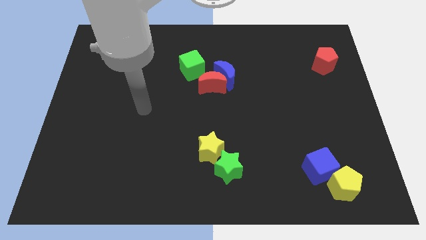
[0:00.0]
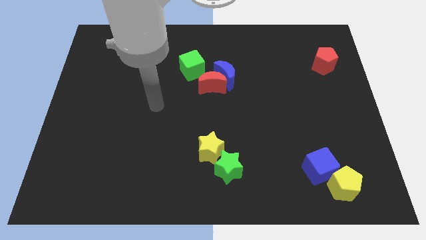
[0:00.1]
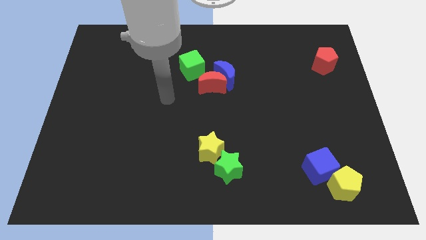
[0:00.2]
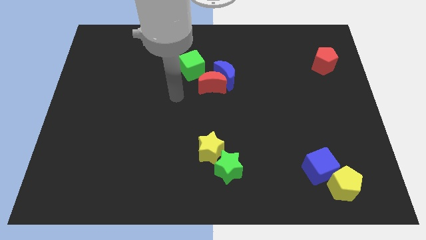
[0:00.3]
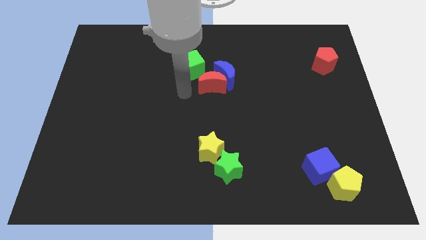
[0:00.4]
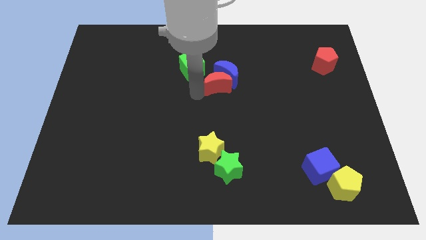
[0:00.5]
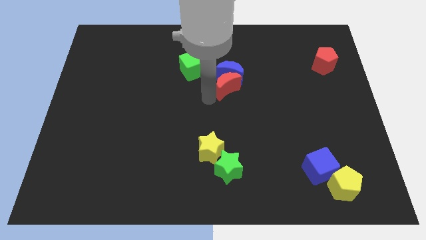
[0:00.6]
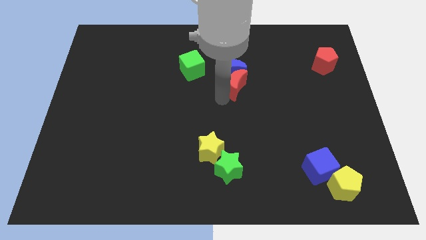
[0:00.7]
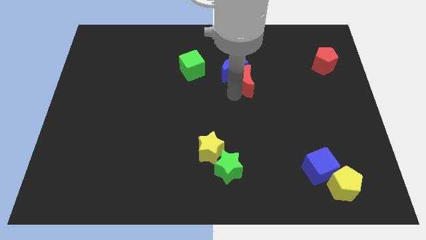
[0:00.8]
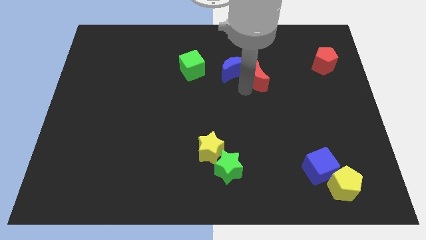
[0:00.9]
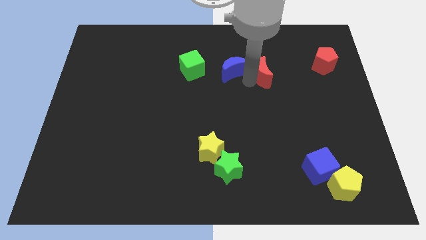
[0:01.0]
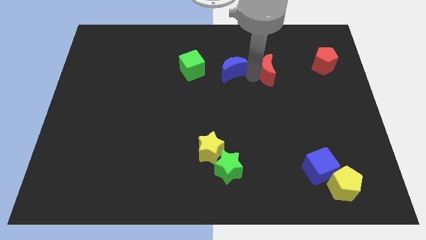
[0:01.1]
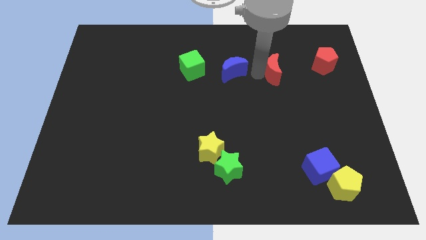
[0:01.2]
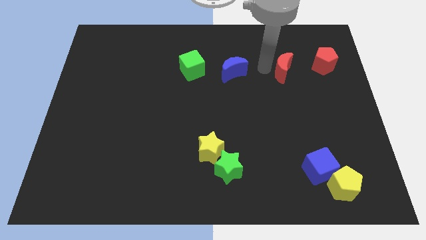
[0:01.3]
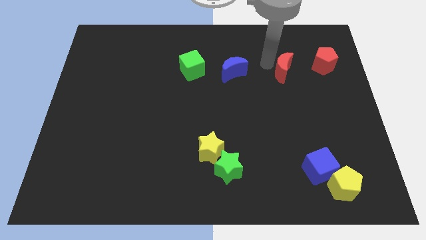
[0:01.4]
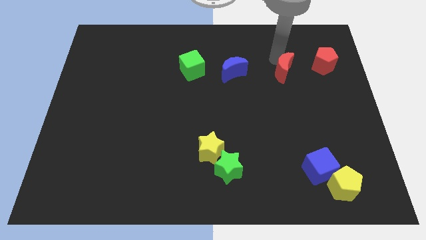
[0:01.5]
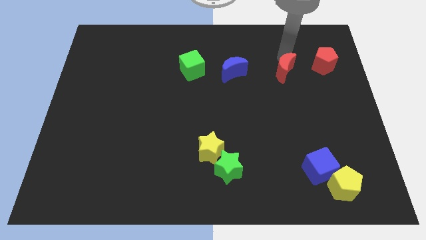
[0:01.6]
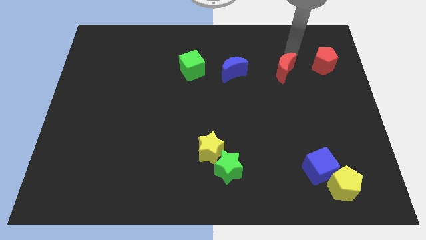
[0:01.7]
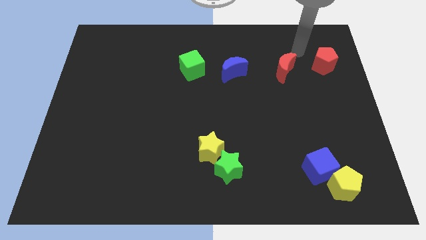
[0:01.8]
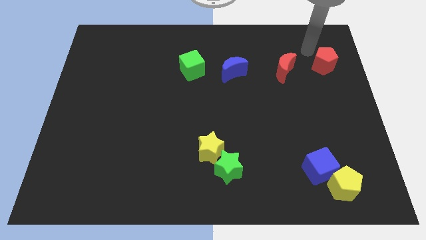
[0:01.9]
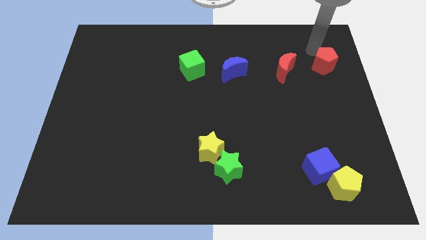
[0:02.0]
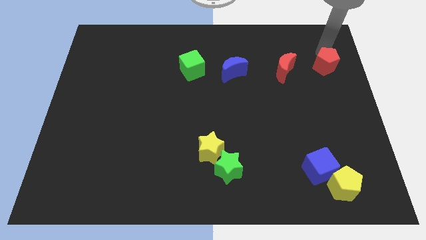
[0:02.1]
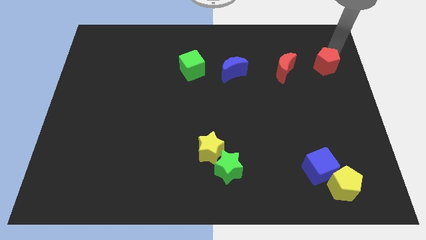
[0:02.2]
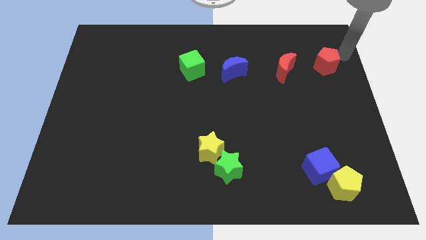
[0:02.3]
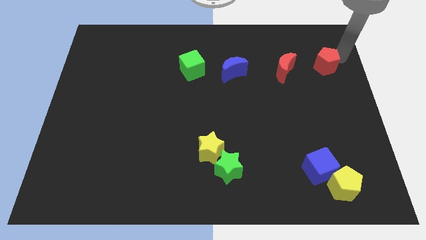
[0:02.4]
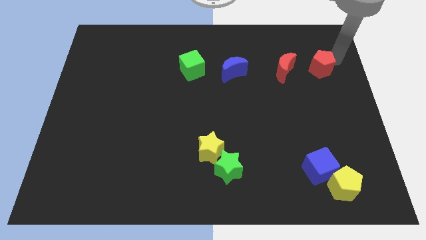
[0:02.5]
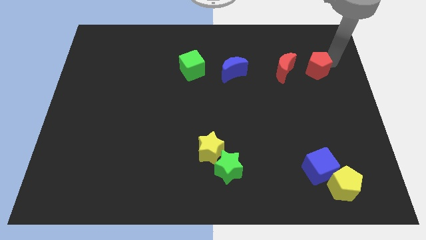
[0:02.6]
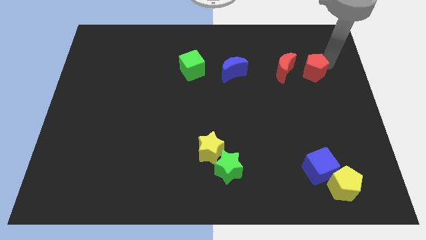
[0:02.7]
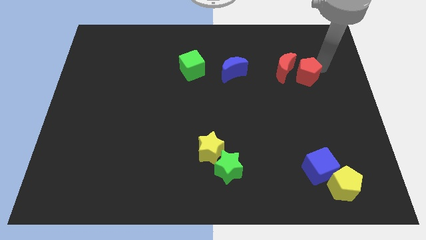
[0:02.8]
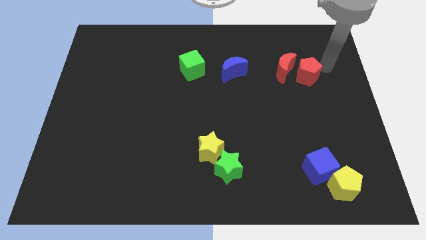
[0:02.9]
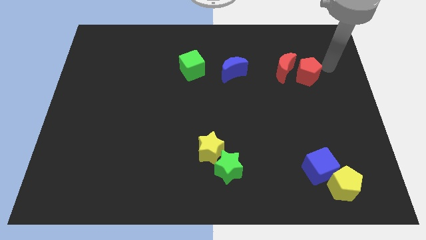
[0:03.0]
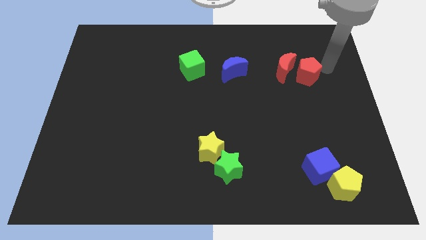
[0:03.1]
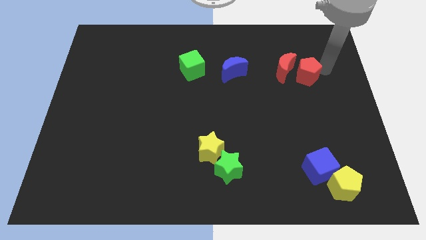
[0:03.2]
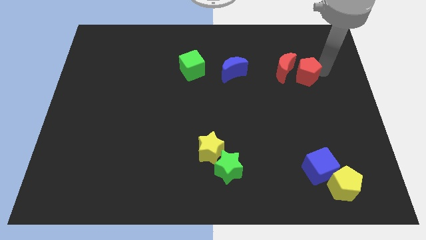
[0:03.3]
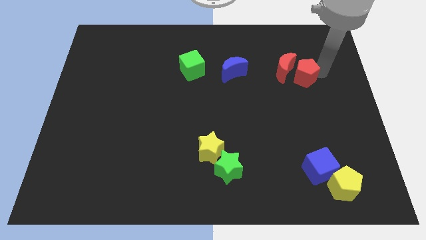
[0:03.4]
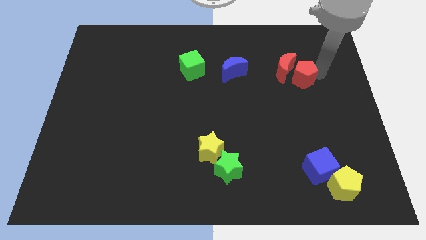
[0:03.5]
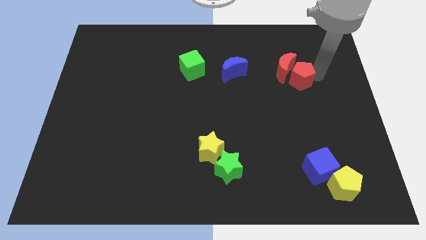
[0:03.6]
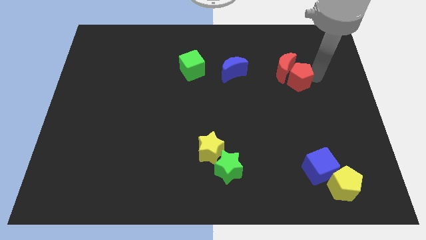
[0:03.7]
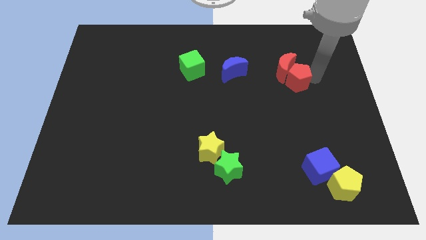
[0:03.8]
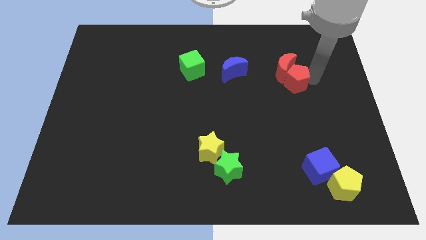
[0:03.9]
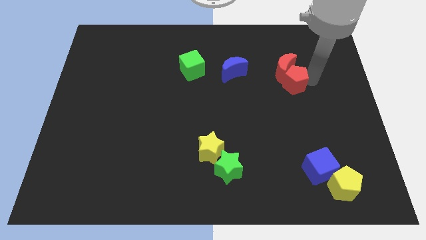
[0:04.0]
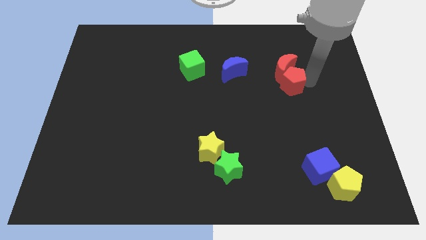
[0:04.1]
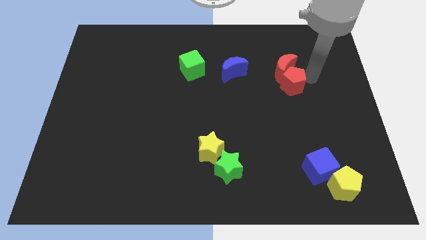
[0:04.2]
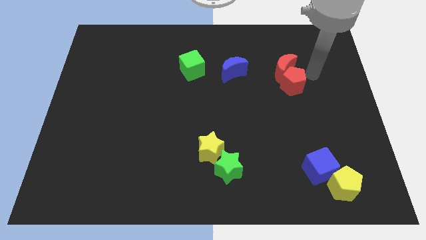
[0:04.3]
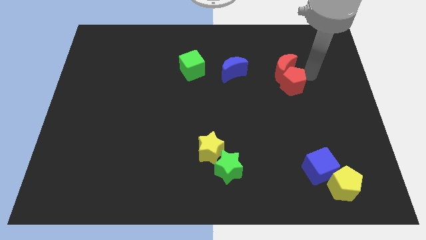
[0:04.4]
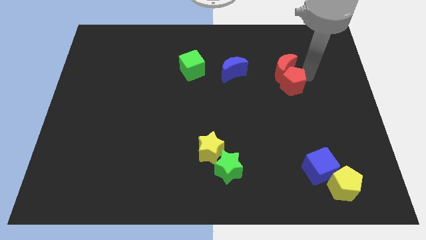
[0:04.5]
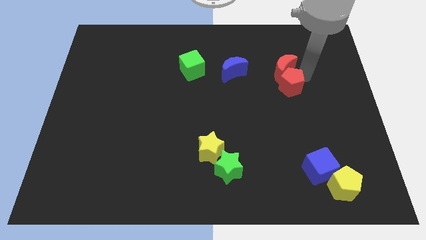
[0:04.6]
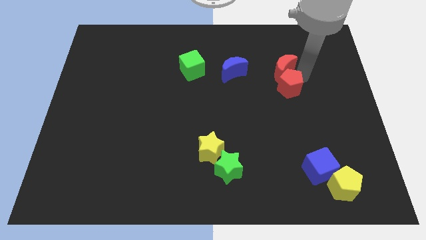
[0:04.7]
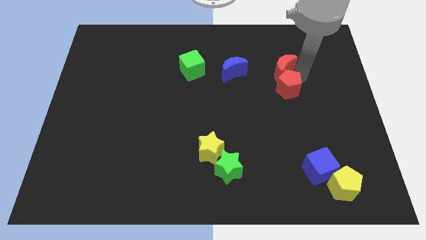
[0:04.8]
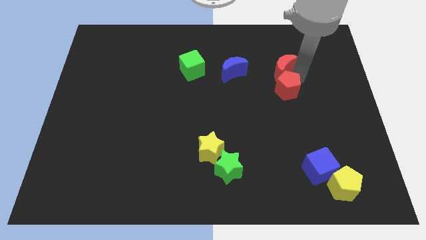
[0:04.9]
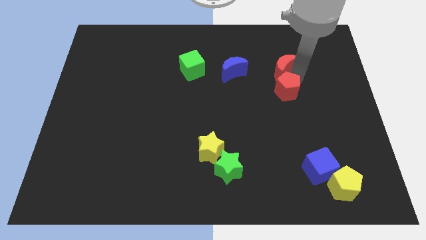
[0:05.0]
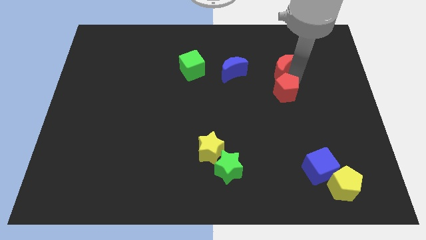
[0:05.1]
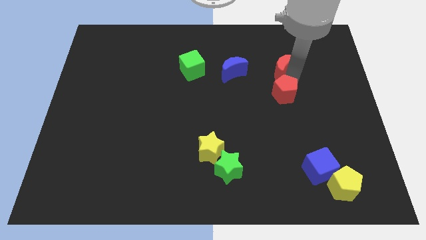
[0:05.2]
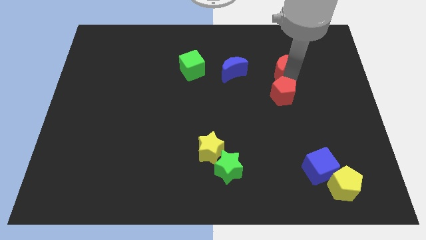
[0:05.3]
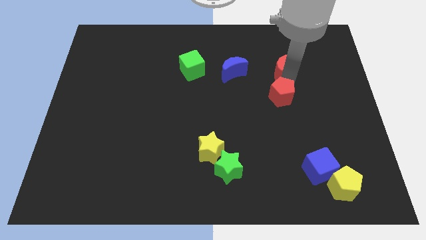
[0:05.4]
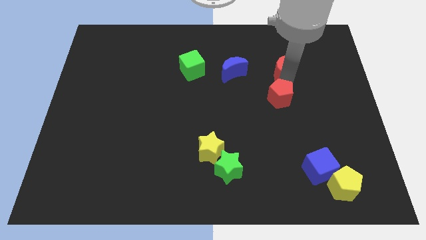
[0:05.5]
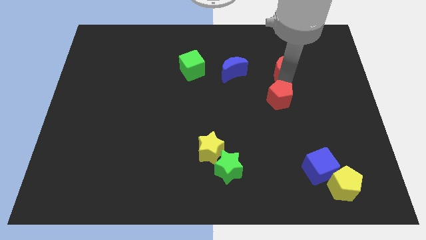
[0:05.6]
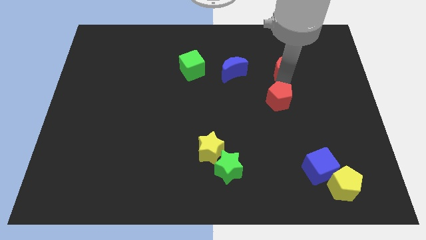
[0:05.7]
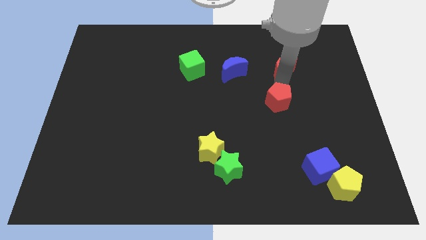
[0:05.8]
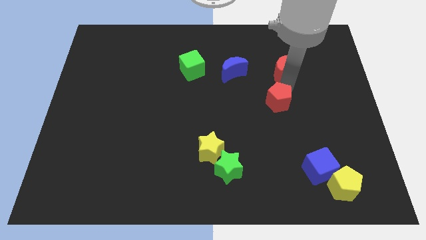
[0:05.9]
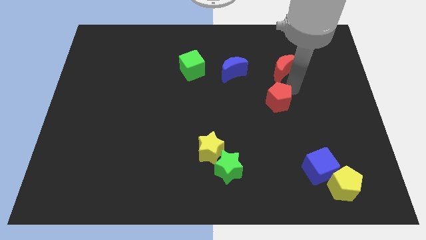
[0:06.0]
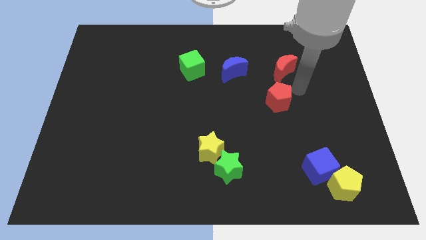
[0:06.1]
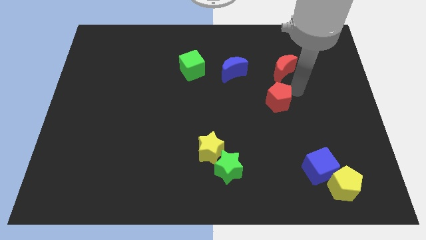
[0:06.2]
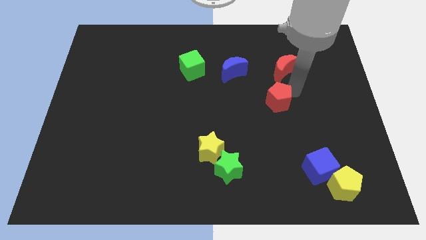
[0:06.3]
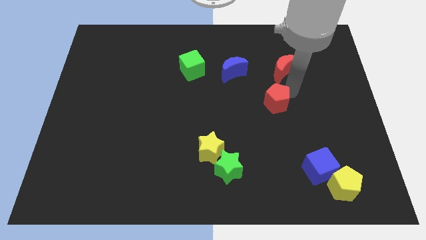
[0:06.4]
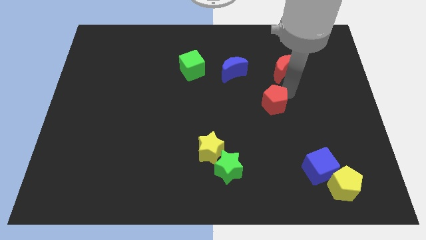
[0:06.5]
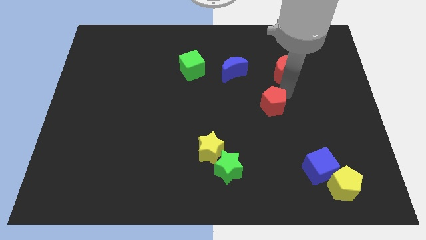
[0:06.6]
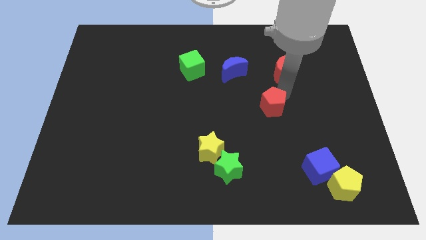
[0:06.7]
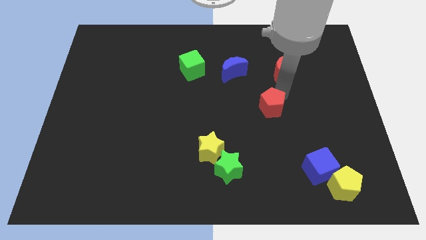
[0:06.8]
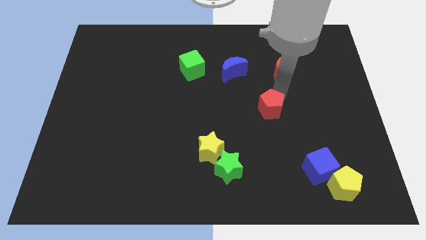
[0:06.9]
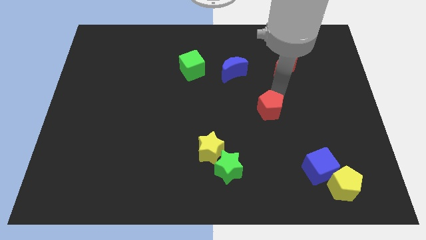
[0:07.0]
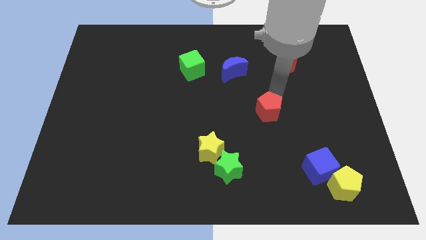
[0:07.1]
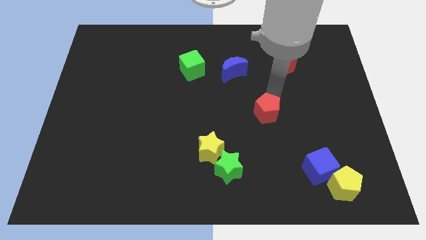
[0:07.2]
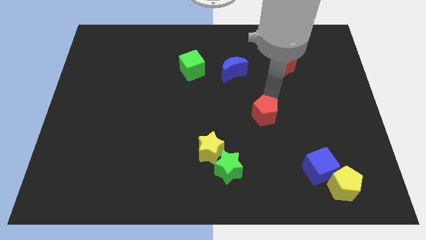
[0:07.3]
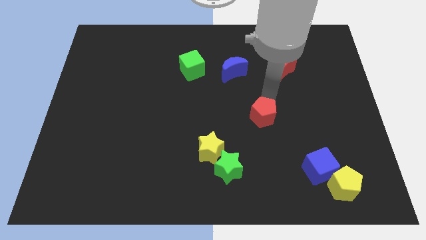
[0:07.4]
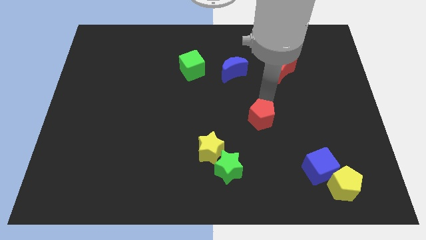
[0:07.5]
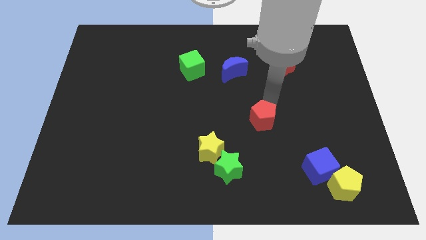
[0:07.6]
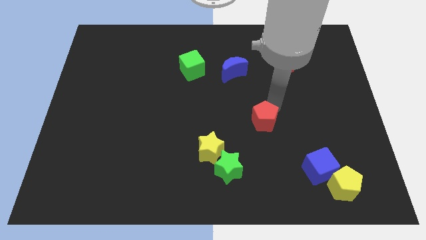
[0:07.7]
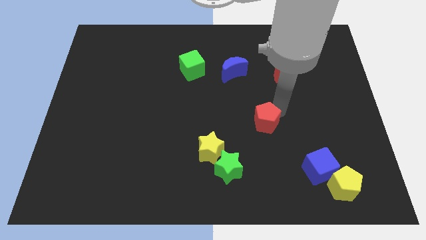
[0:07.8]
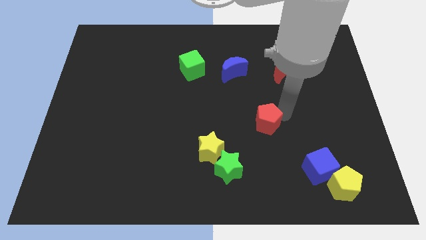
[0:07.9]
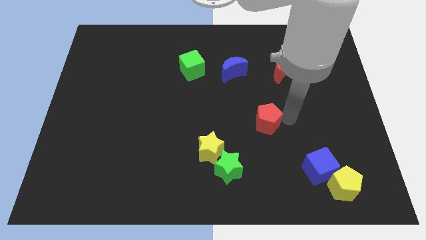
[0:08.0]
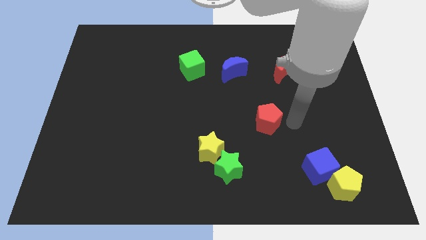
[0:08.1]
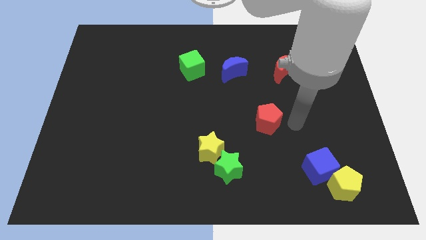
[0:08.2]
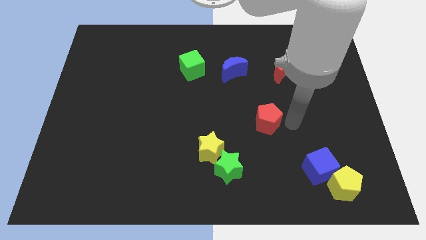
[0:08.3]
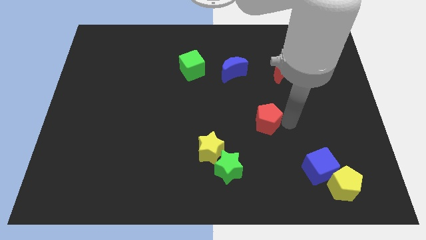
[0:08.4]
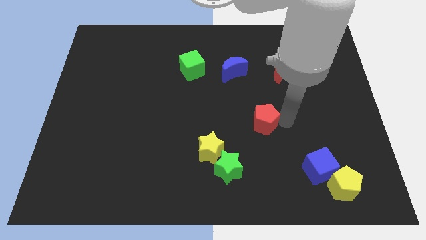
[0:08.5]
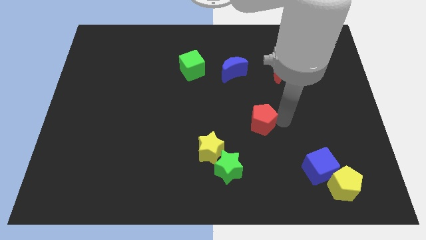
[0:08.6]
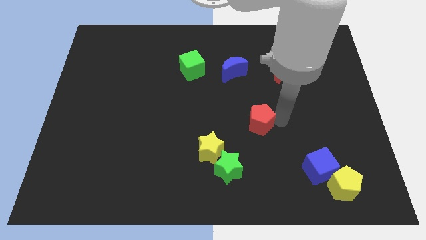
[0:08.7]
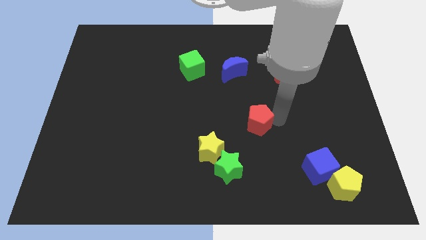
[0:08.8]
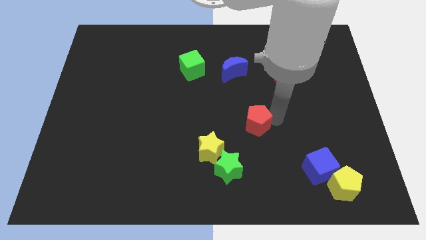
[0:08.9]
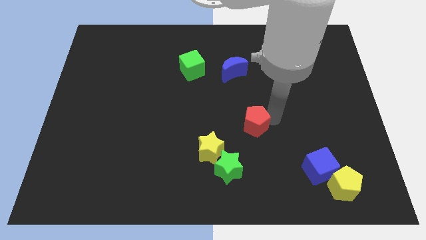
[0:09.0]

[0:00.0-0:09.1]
slide the red pentagon to the top right side of the yellow star
